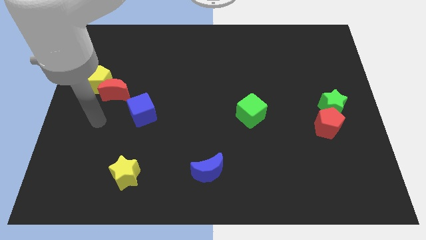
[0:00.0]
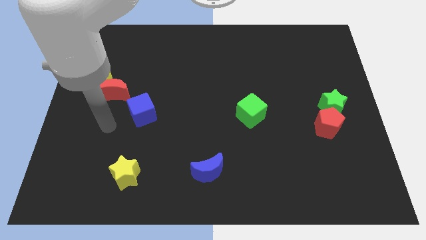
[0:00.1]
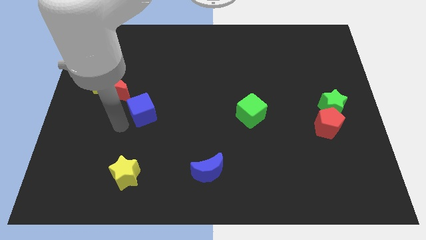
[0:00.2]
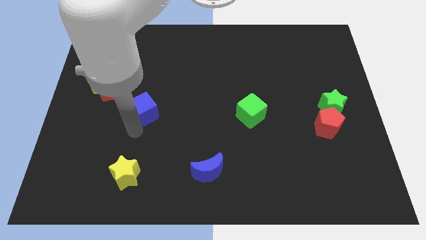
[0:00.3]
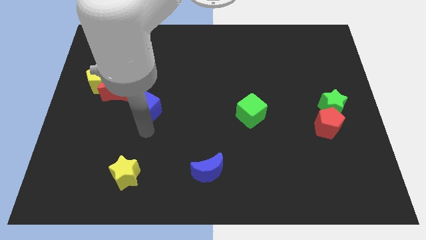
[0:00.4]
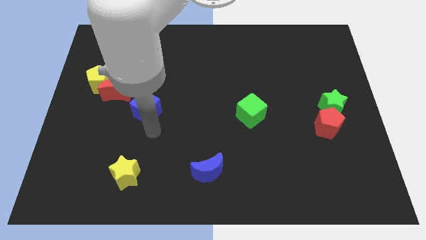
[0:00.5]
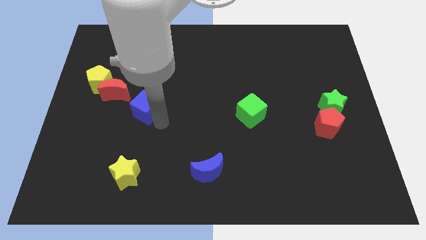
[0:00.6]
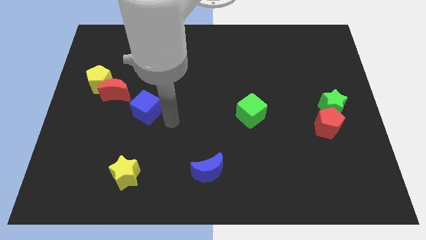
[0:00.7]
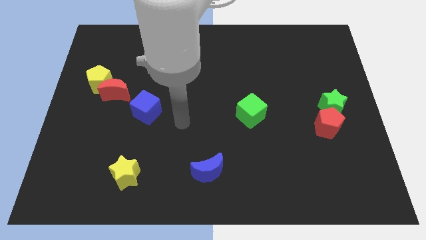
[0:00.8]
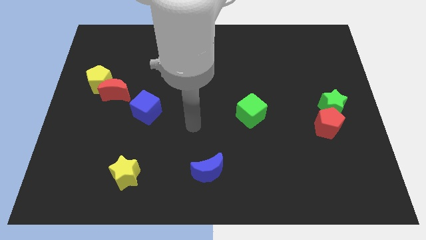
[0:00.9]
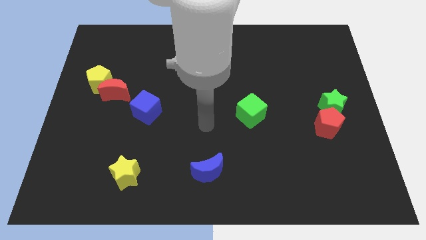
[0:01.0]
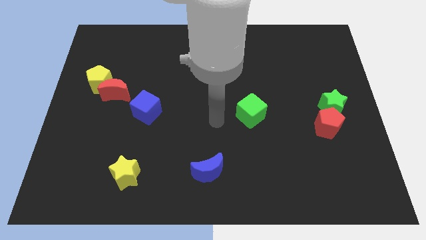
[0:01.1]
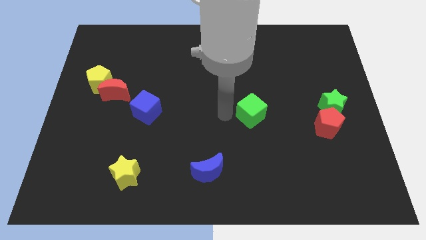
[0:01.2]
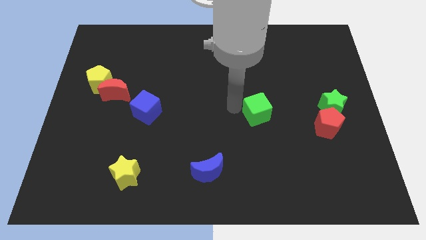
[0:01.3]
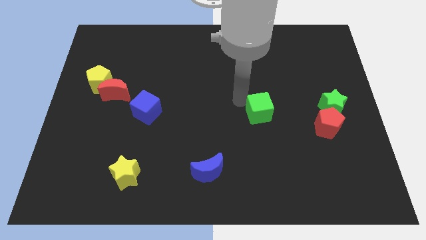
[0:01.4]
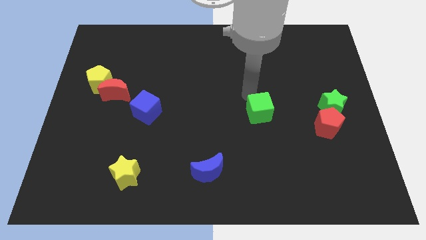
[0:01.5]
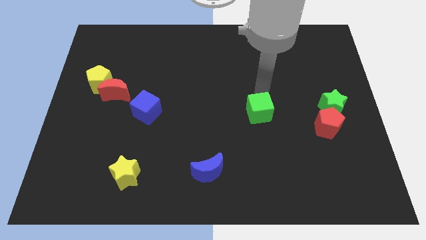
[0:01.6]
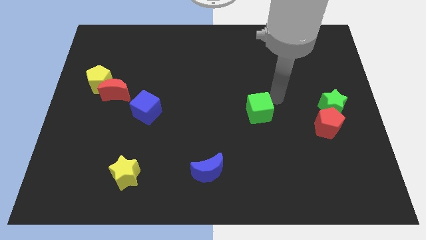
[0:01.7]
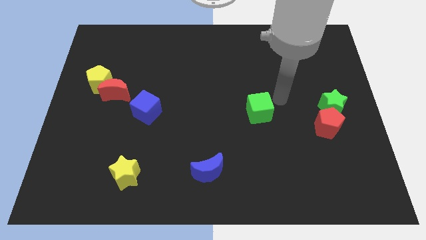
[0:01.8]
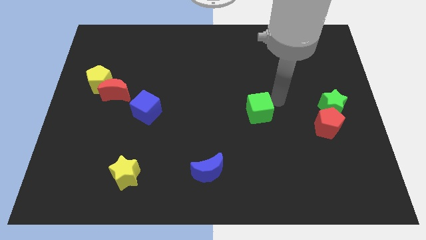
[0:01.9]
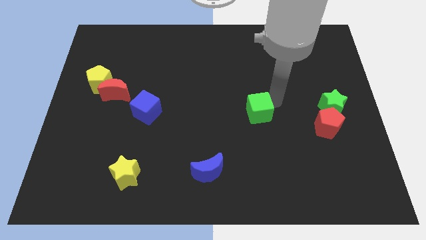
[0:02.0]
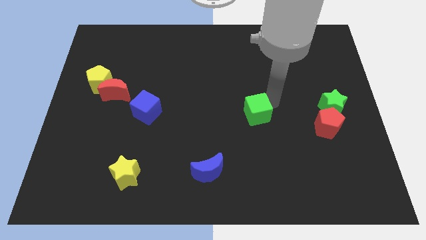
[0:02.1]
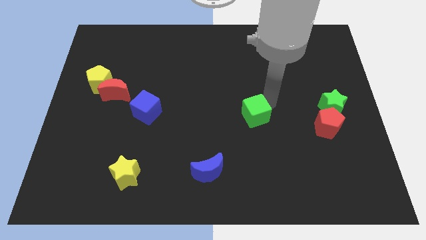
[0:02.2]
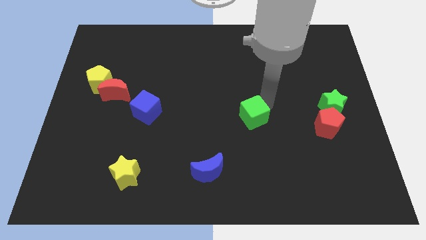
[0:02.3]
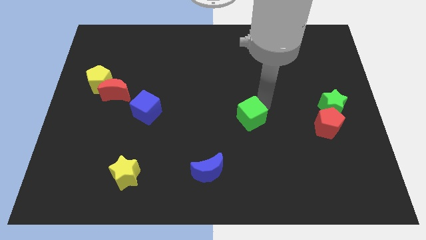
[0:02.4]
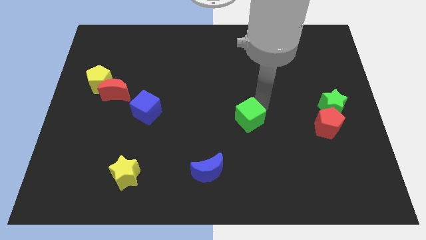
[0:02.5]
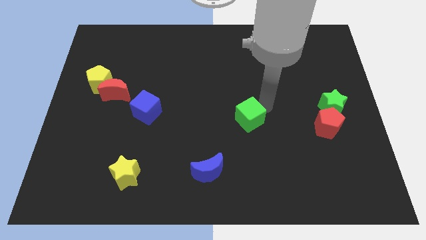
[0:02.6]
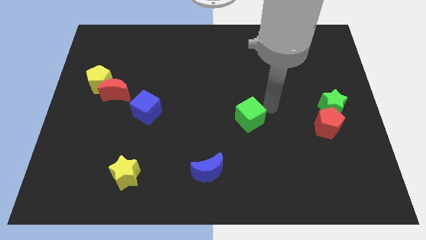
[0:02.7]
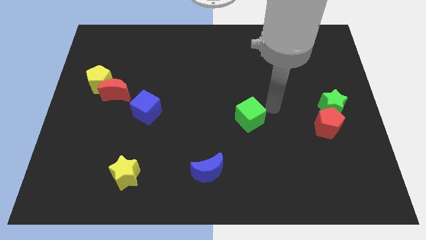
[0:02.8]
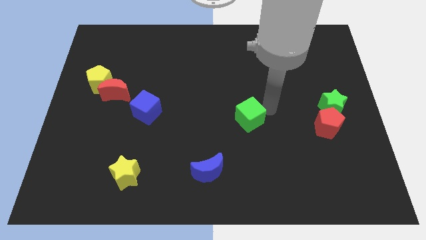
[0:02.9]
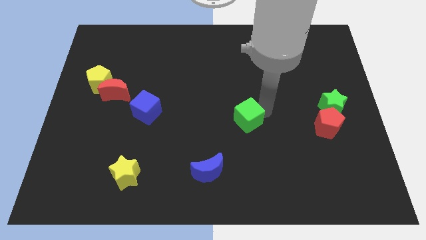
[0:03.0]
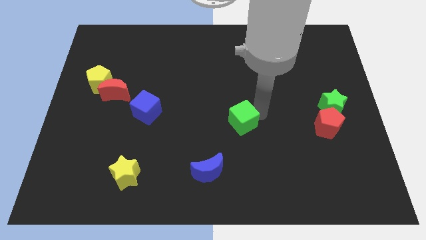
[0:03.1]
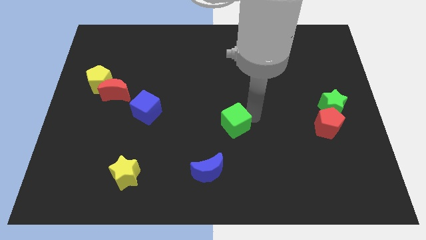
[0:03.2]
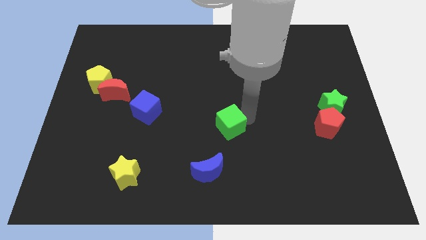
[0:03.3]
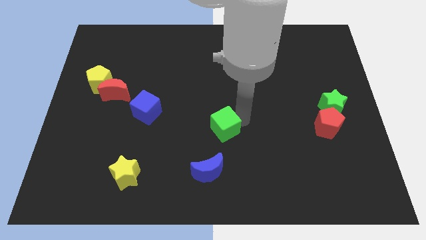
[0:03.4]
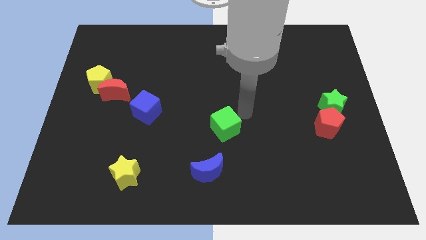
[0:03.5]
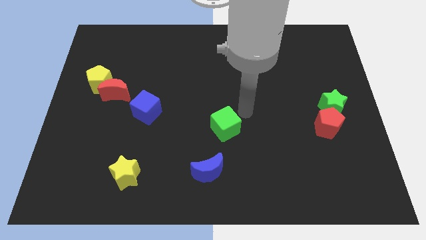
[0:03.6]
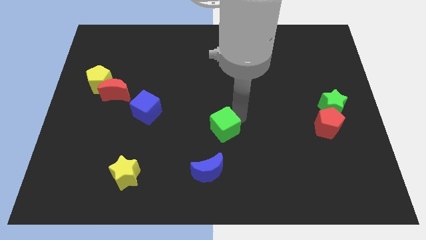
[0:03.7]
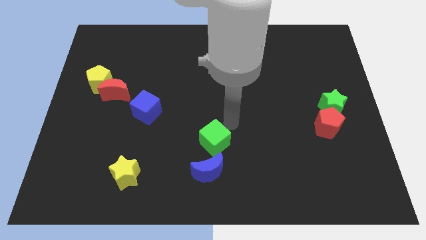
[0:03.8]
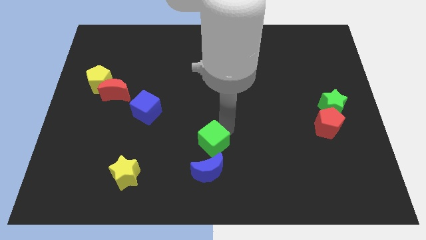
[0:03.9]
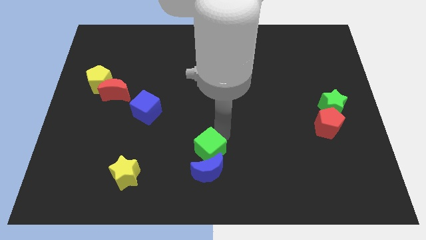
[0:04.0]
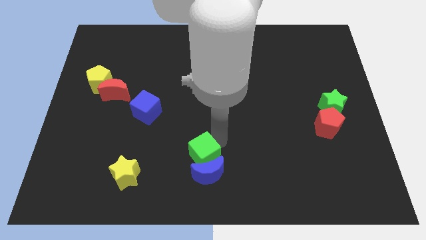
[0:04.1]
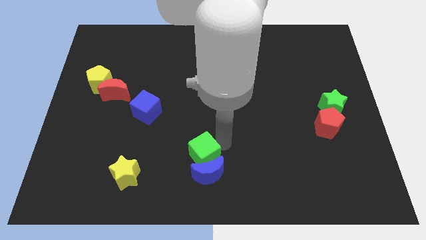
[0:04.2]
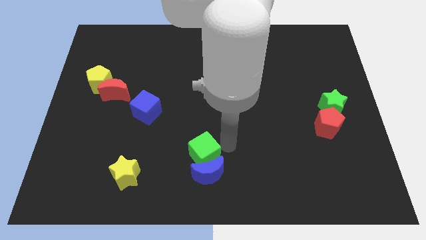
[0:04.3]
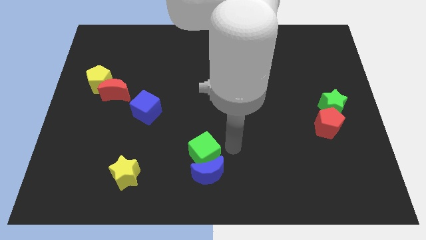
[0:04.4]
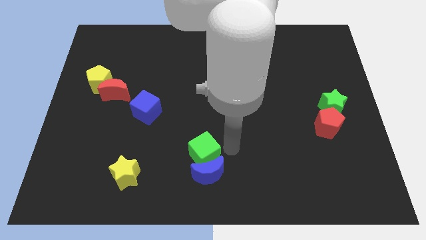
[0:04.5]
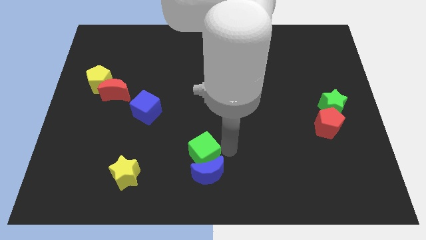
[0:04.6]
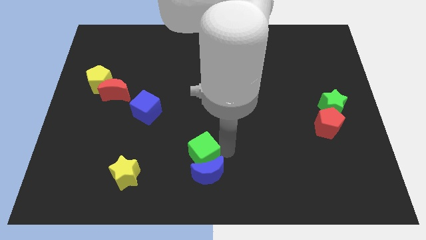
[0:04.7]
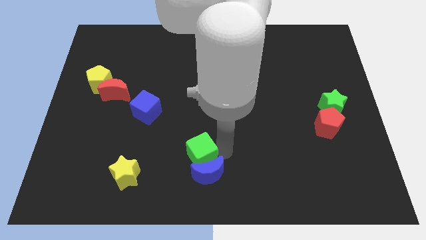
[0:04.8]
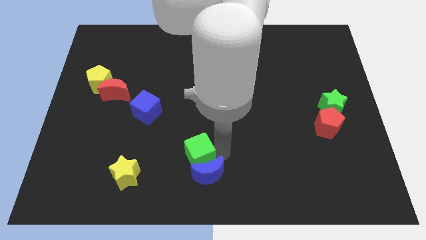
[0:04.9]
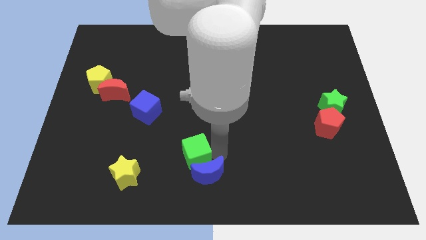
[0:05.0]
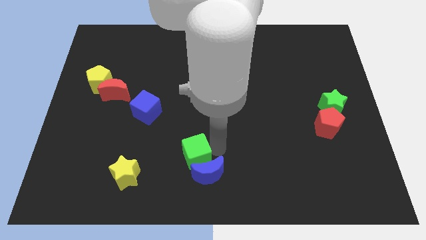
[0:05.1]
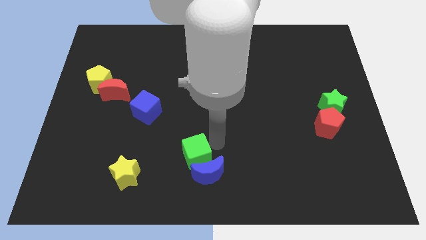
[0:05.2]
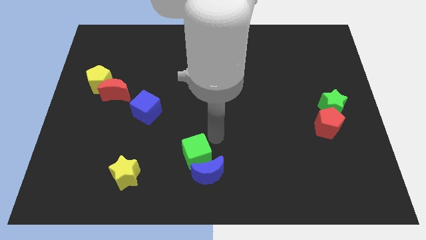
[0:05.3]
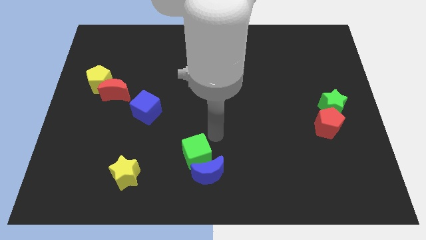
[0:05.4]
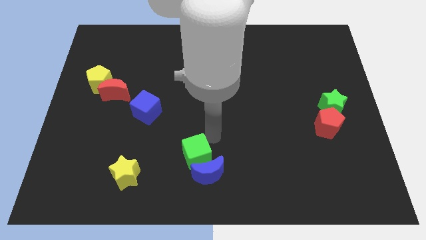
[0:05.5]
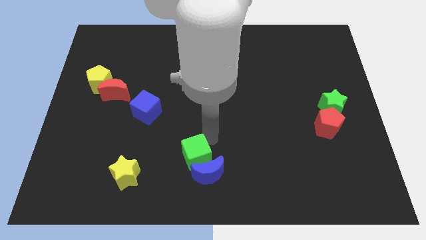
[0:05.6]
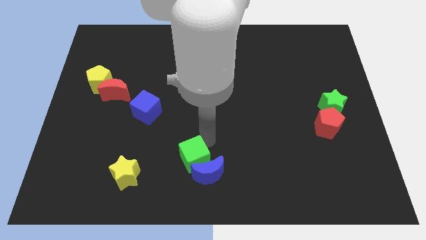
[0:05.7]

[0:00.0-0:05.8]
push the green cube to the right of the yellow star

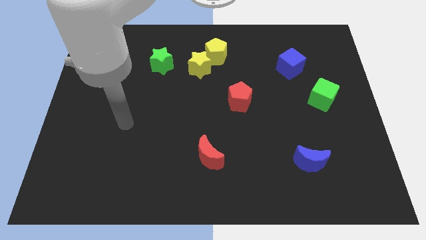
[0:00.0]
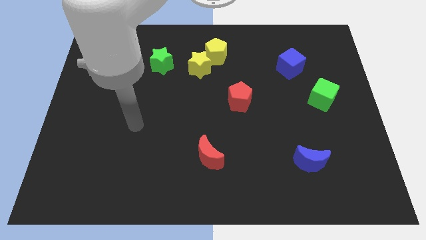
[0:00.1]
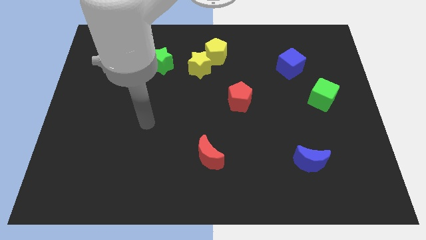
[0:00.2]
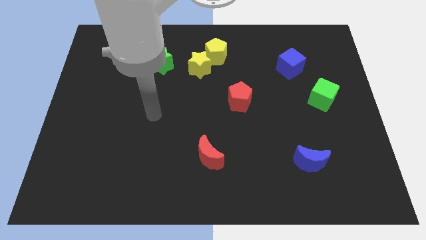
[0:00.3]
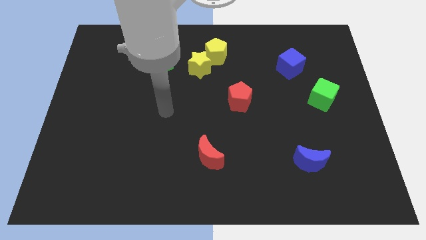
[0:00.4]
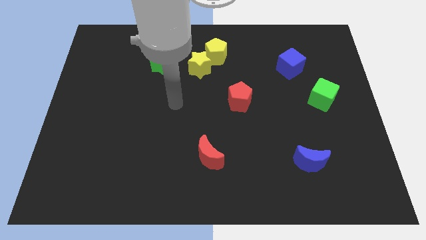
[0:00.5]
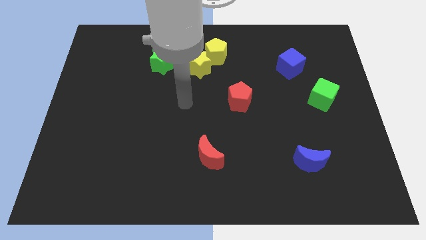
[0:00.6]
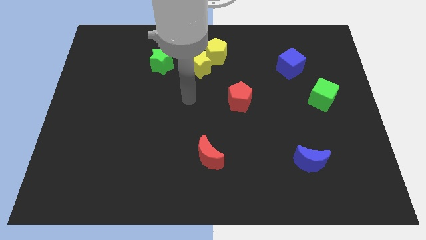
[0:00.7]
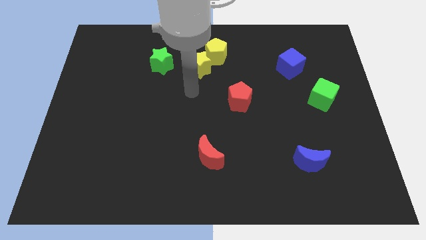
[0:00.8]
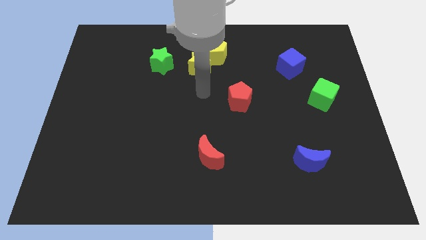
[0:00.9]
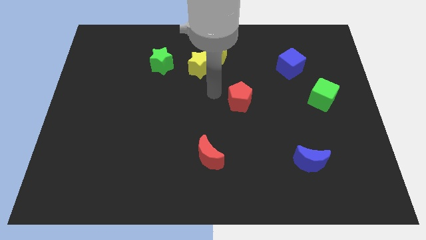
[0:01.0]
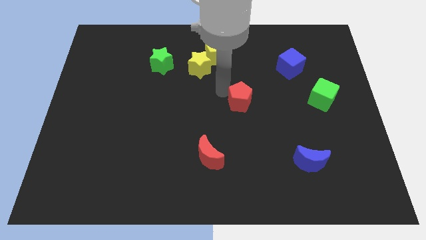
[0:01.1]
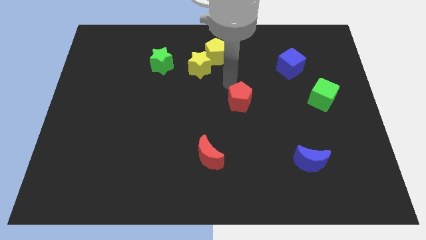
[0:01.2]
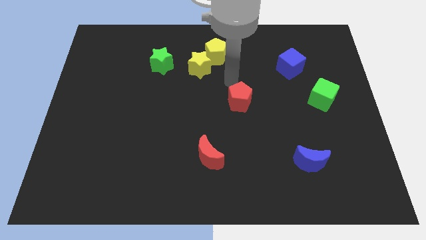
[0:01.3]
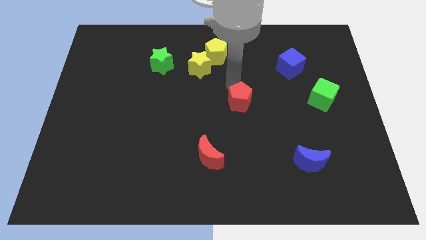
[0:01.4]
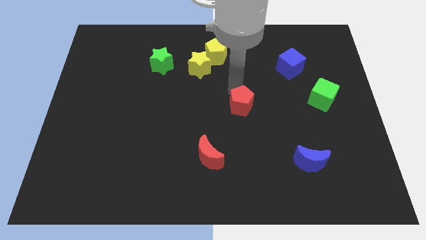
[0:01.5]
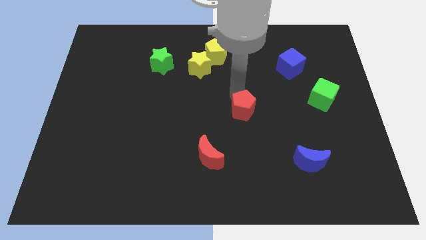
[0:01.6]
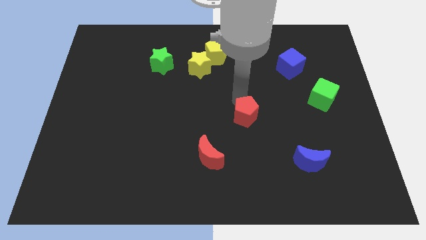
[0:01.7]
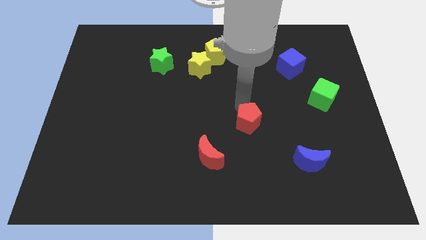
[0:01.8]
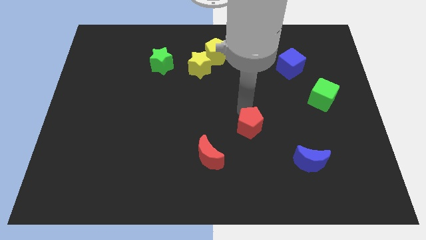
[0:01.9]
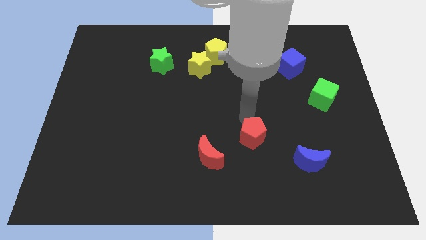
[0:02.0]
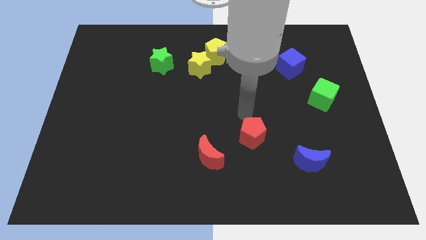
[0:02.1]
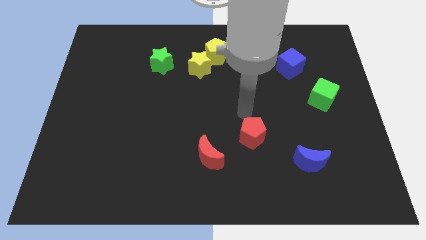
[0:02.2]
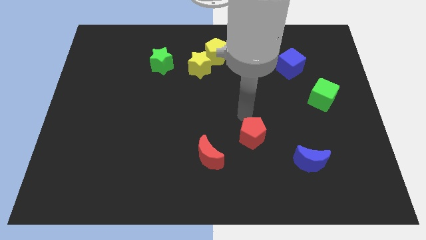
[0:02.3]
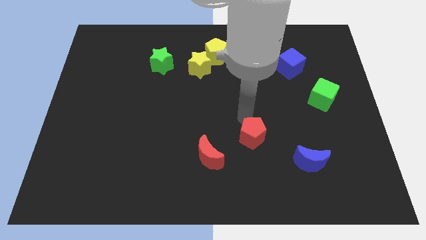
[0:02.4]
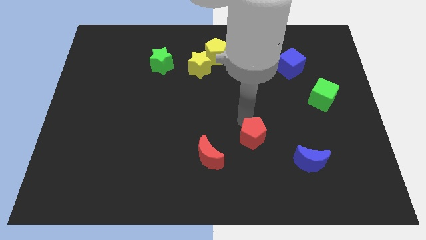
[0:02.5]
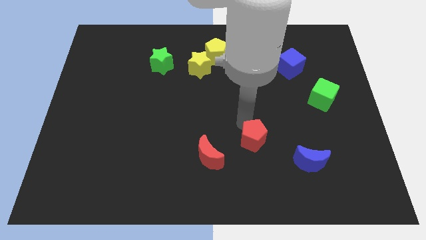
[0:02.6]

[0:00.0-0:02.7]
slide the red pentagon right of the red moon
